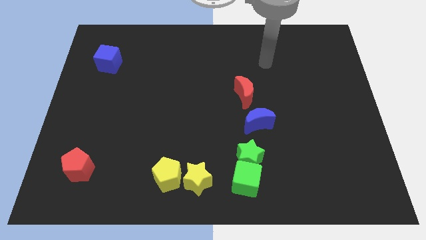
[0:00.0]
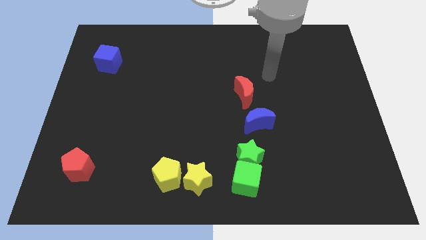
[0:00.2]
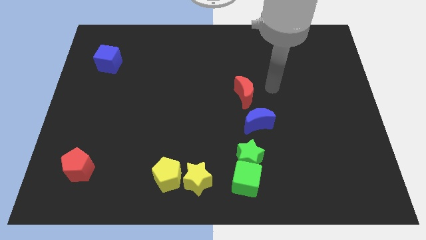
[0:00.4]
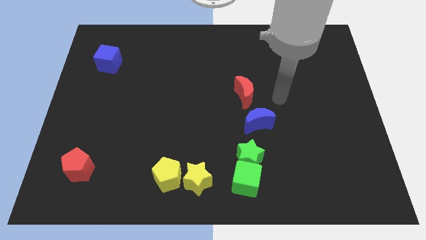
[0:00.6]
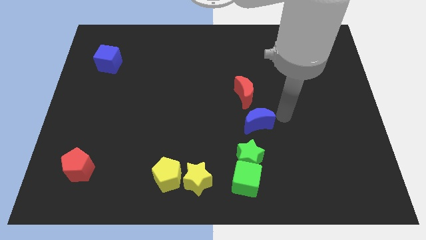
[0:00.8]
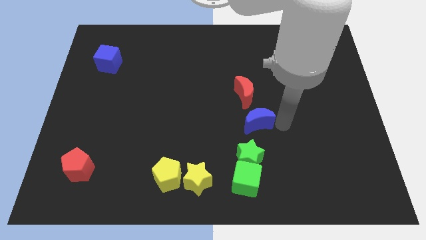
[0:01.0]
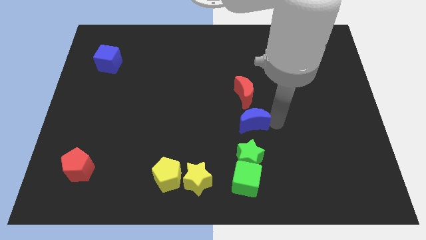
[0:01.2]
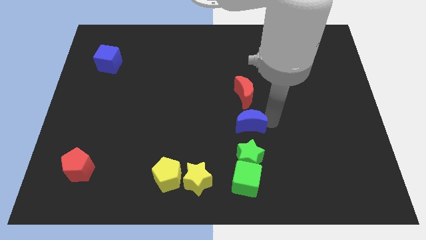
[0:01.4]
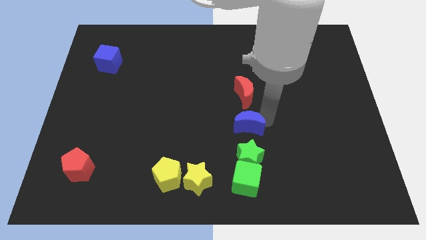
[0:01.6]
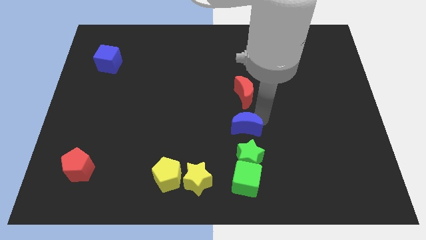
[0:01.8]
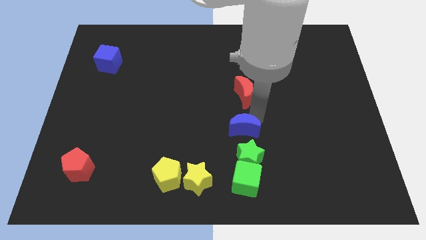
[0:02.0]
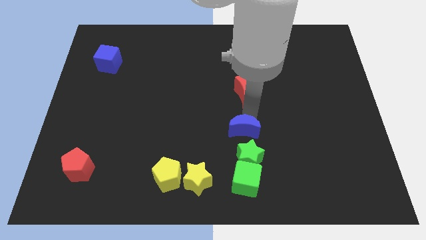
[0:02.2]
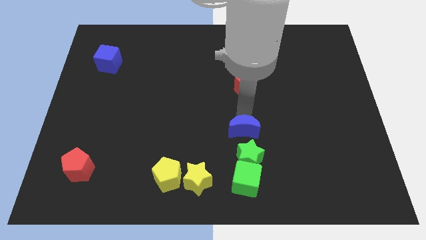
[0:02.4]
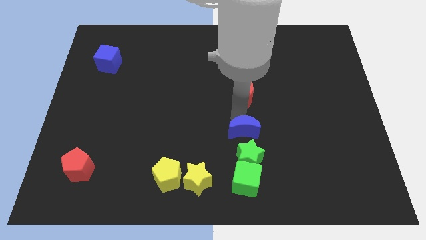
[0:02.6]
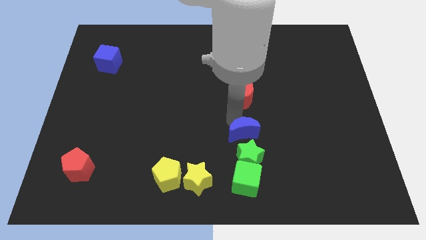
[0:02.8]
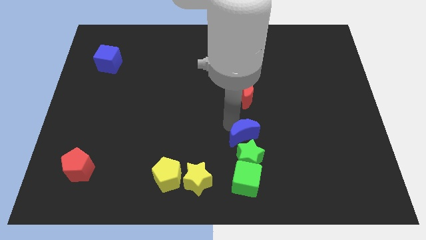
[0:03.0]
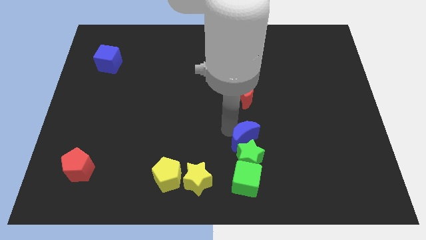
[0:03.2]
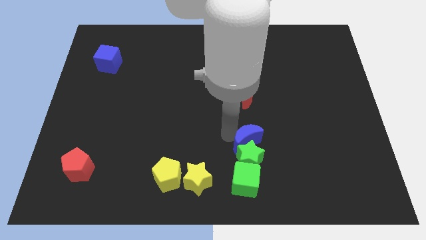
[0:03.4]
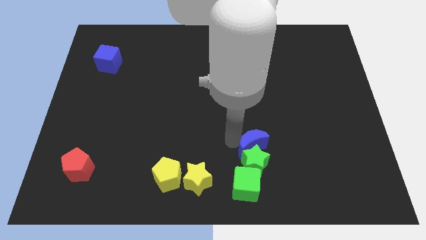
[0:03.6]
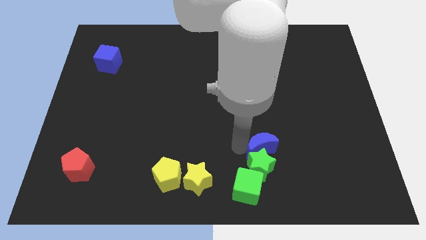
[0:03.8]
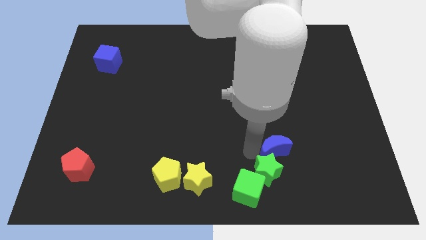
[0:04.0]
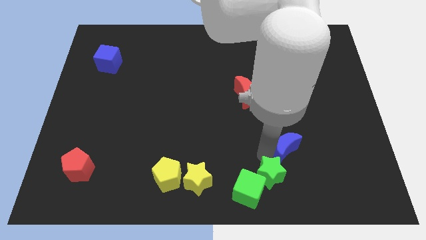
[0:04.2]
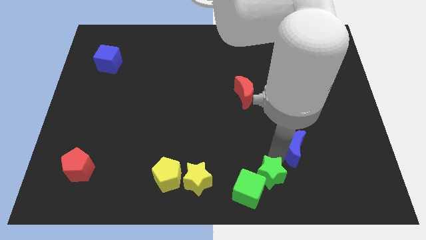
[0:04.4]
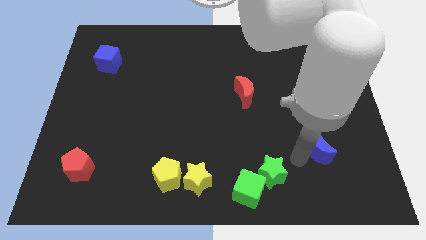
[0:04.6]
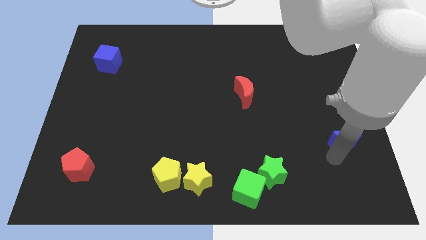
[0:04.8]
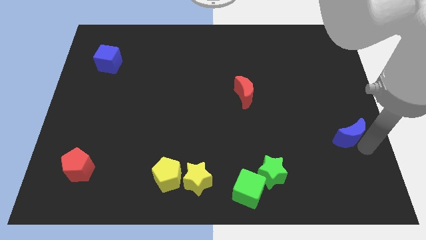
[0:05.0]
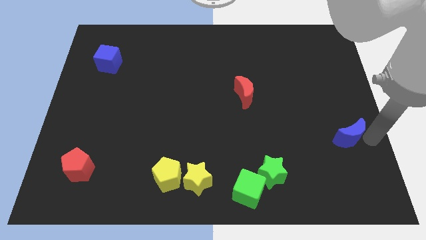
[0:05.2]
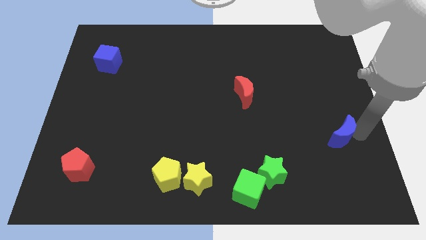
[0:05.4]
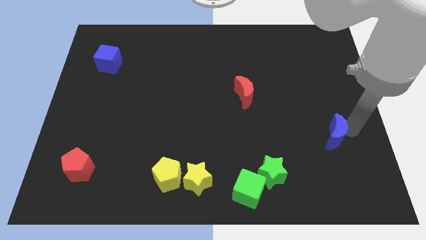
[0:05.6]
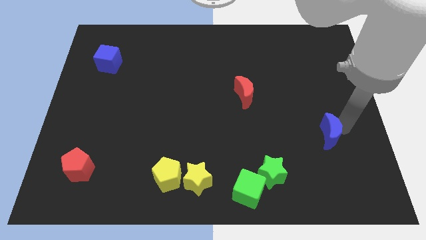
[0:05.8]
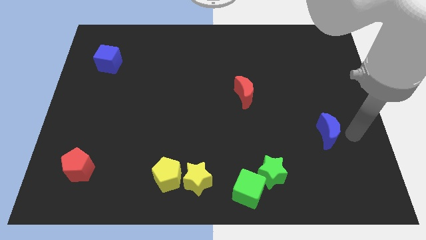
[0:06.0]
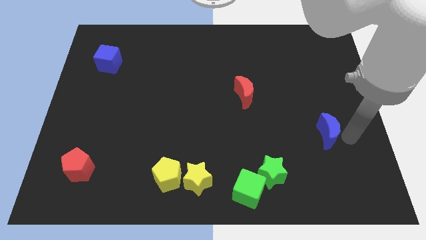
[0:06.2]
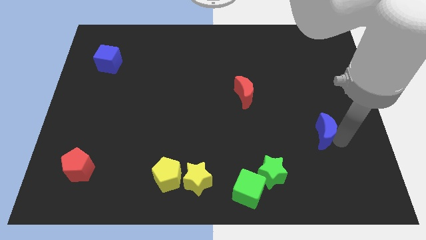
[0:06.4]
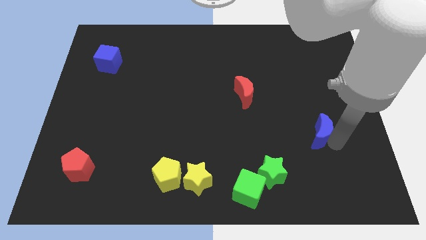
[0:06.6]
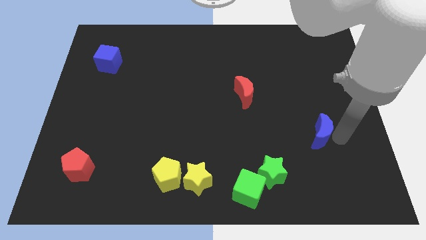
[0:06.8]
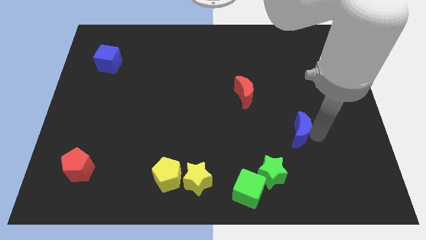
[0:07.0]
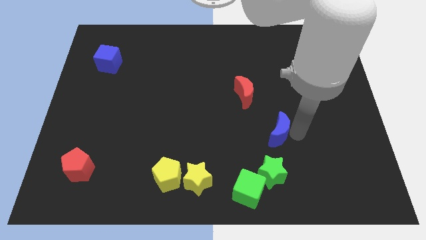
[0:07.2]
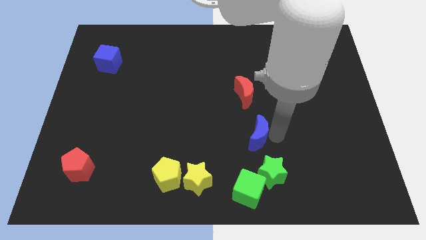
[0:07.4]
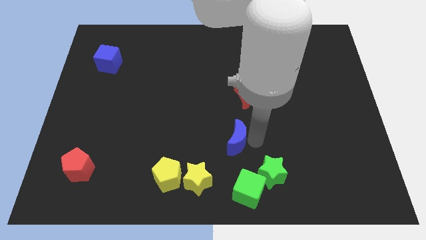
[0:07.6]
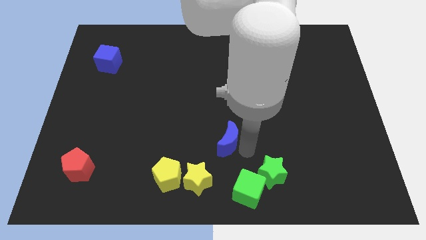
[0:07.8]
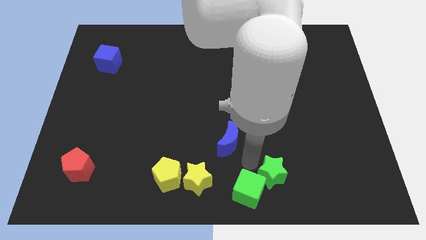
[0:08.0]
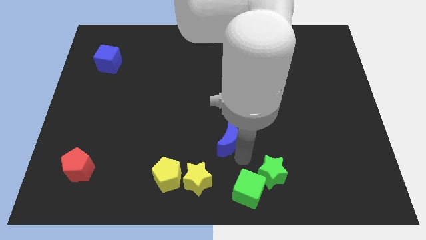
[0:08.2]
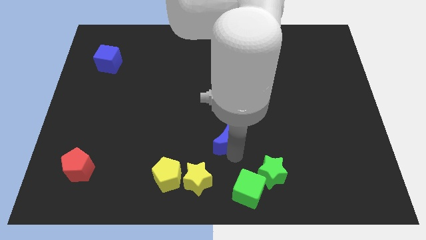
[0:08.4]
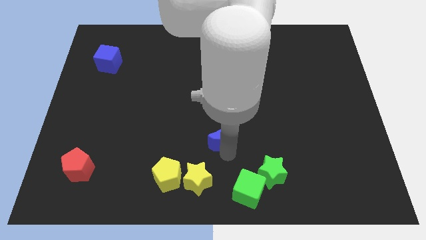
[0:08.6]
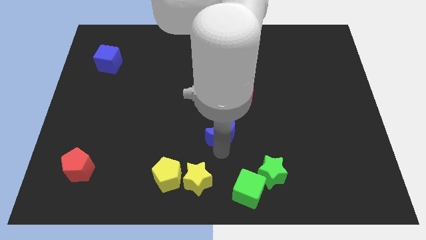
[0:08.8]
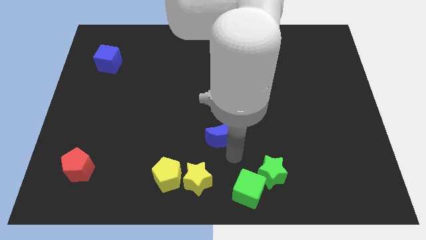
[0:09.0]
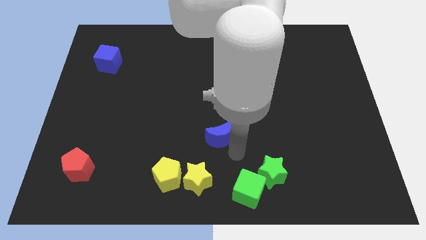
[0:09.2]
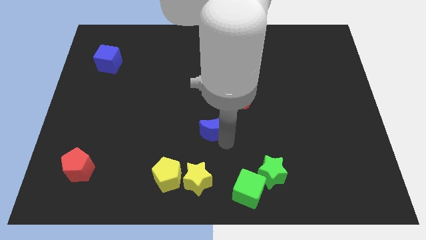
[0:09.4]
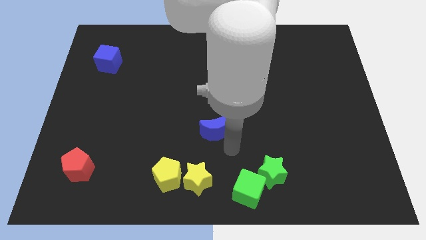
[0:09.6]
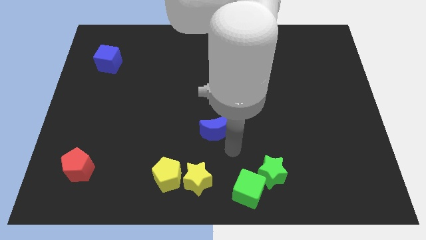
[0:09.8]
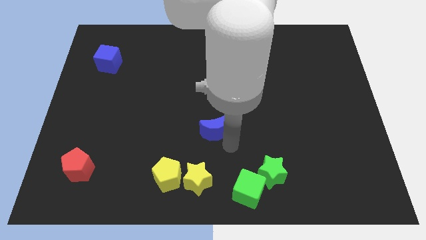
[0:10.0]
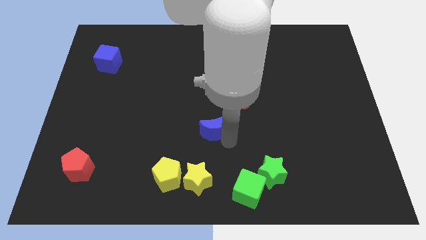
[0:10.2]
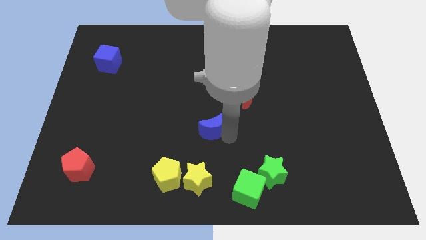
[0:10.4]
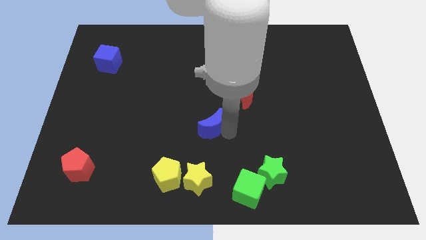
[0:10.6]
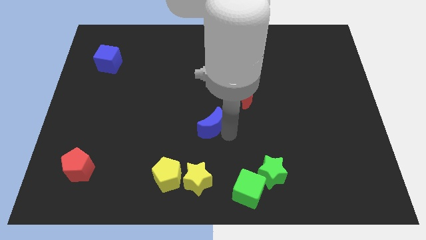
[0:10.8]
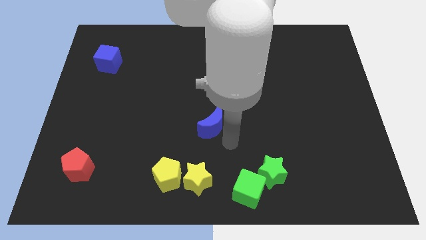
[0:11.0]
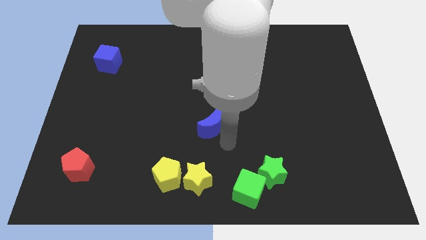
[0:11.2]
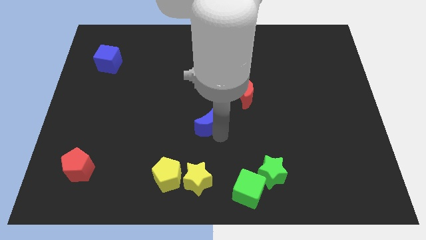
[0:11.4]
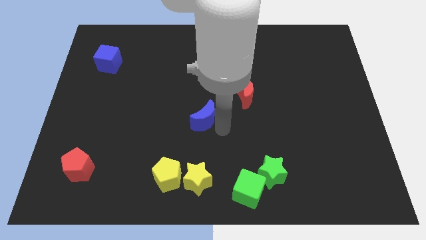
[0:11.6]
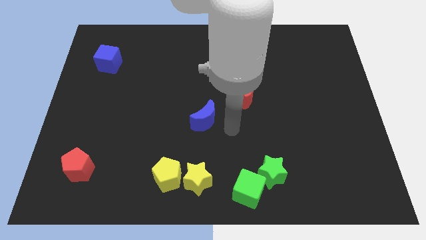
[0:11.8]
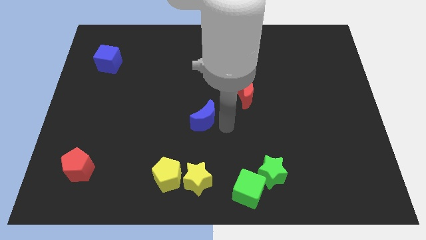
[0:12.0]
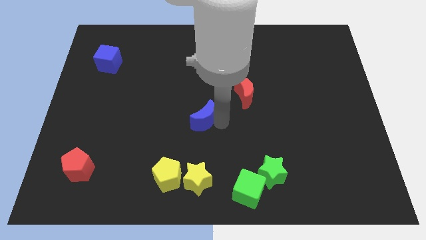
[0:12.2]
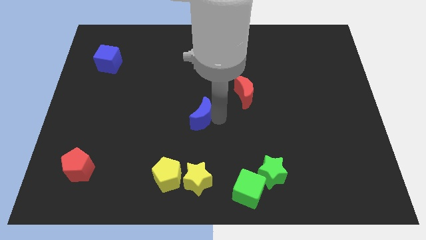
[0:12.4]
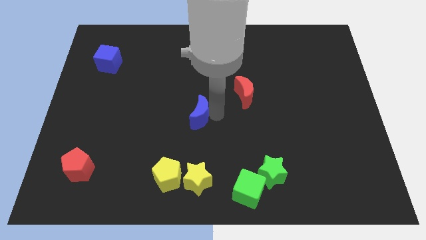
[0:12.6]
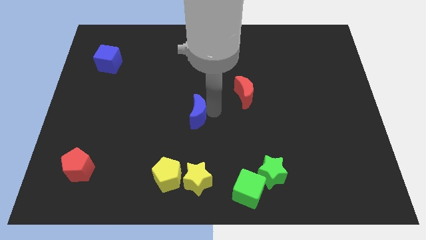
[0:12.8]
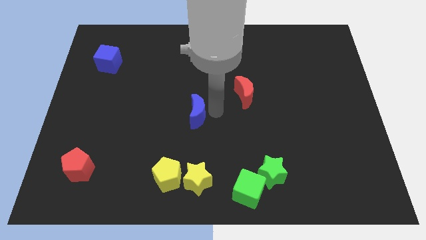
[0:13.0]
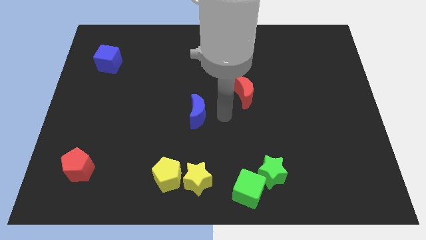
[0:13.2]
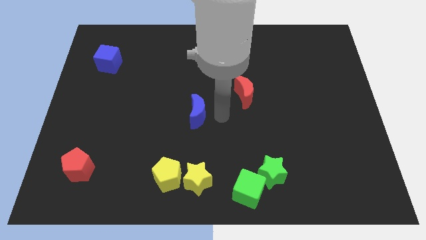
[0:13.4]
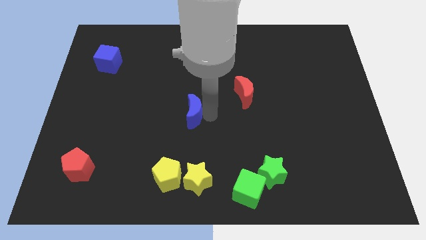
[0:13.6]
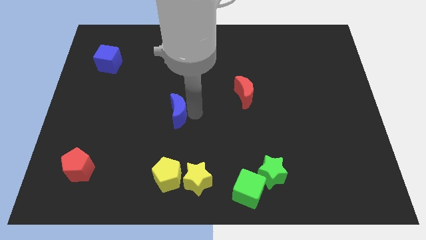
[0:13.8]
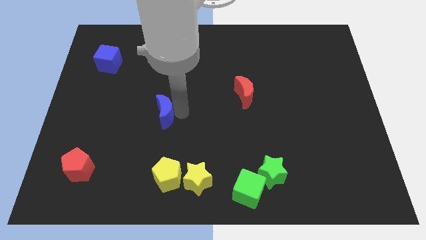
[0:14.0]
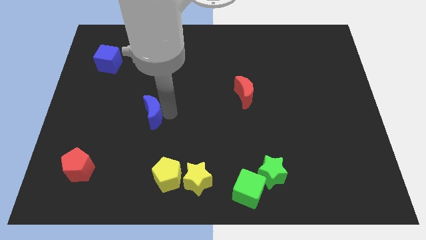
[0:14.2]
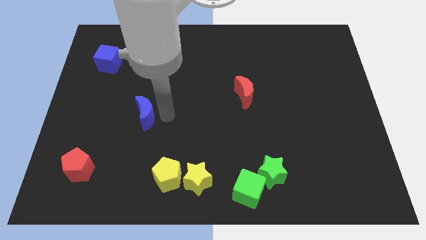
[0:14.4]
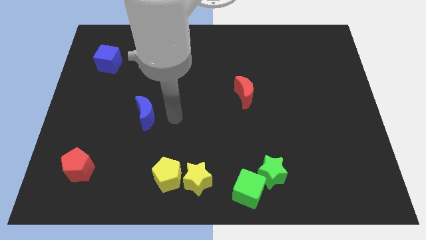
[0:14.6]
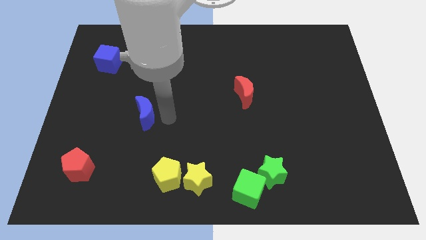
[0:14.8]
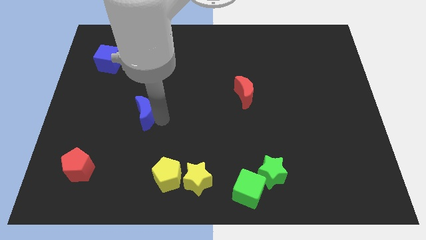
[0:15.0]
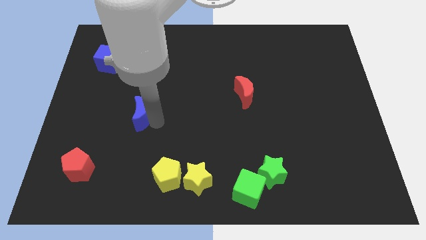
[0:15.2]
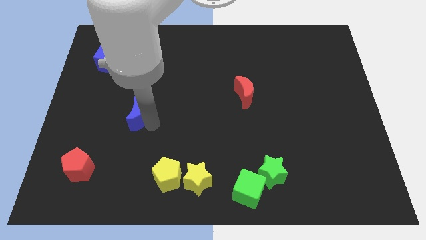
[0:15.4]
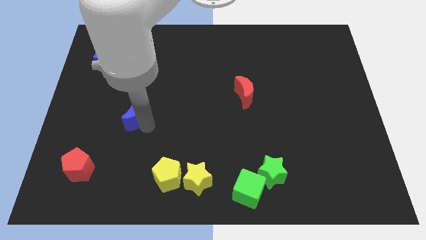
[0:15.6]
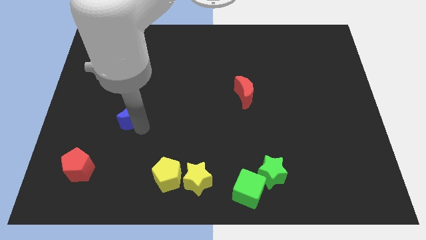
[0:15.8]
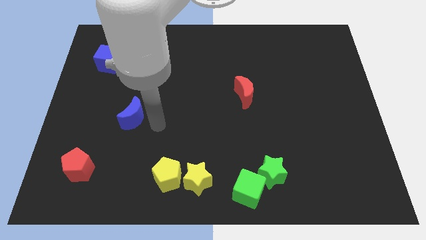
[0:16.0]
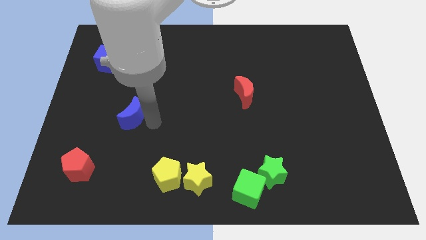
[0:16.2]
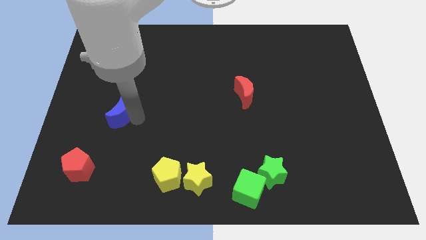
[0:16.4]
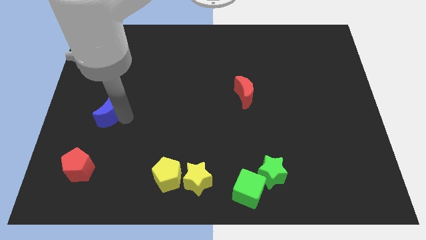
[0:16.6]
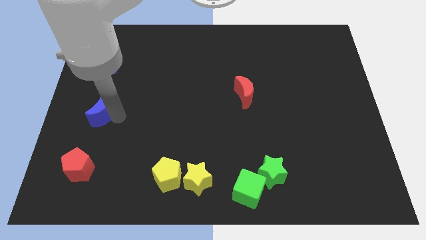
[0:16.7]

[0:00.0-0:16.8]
slide the blue moon to the left side of the board
